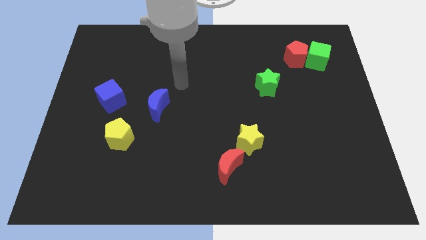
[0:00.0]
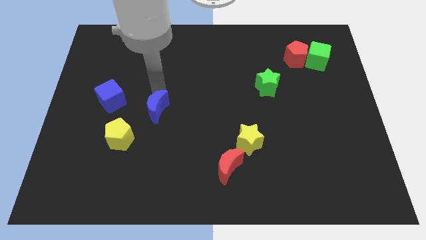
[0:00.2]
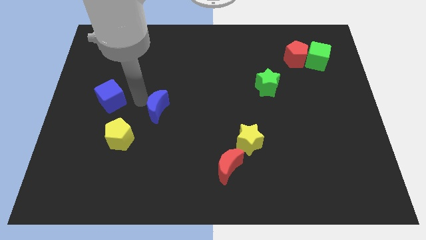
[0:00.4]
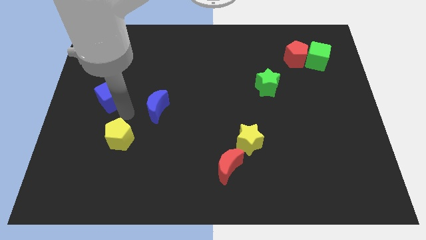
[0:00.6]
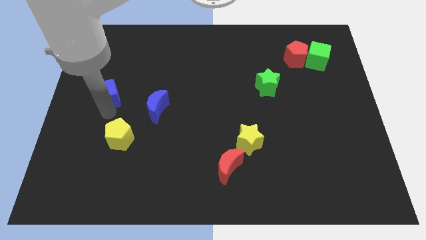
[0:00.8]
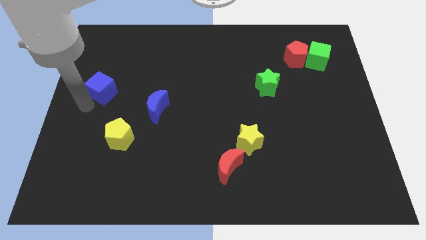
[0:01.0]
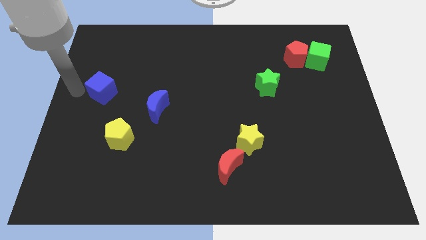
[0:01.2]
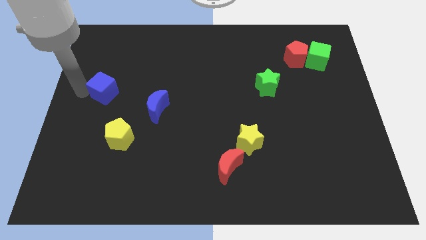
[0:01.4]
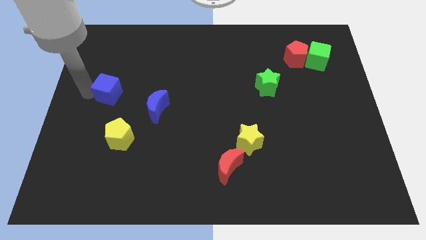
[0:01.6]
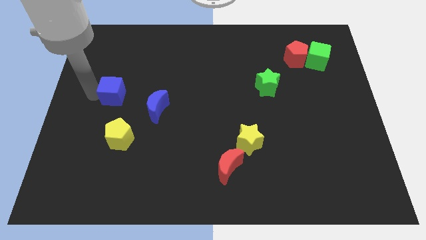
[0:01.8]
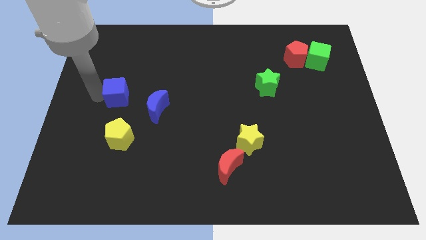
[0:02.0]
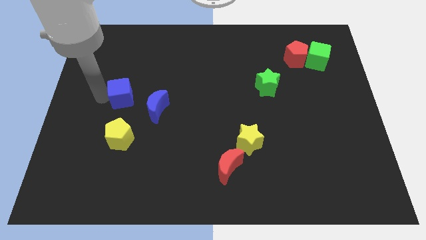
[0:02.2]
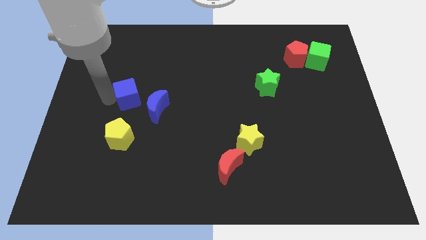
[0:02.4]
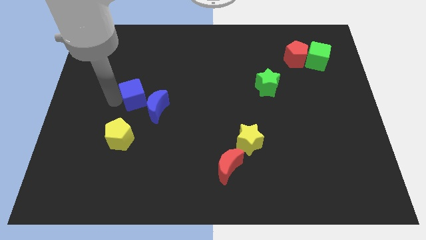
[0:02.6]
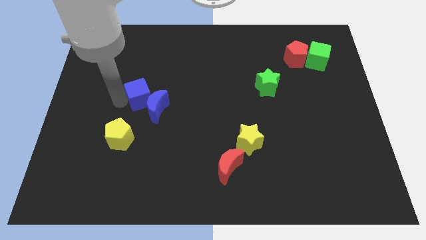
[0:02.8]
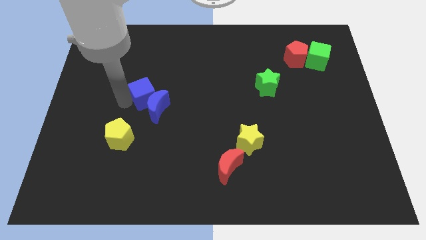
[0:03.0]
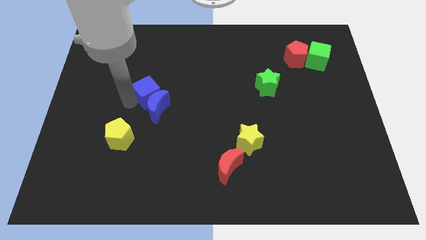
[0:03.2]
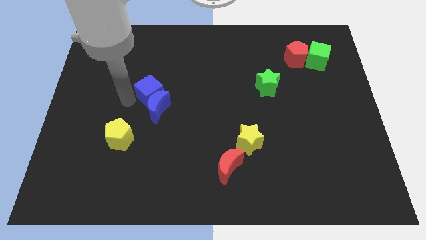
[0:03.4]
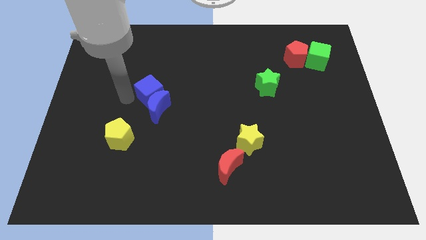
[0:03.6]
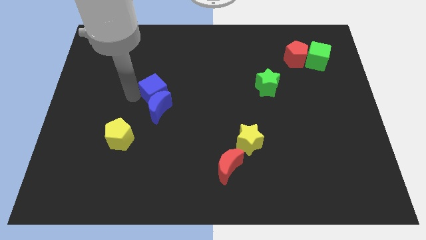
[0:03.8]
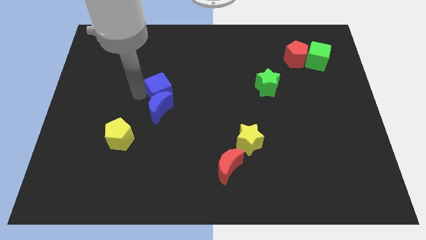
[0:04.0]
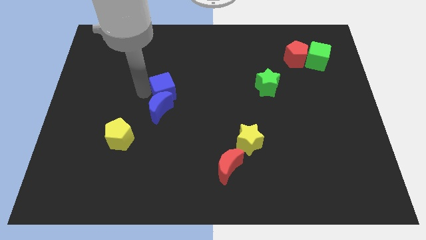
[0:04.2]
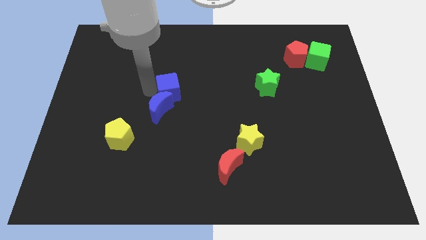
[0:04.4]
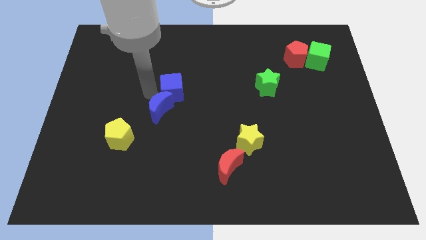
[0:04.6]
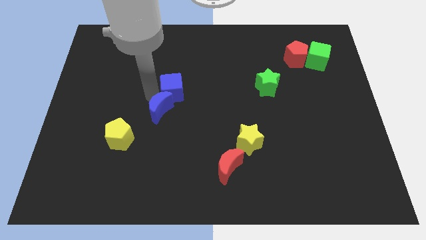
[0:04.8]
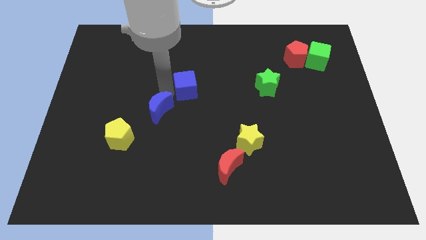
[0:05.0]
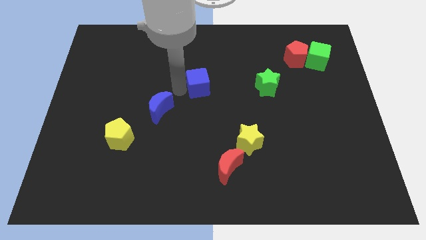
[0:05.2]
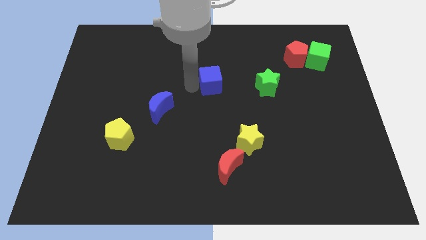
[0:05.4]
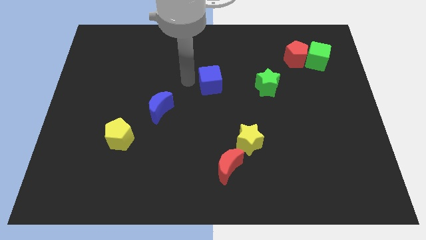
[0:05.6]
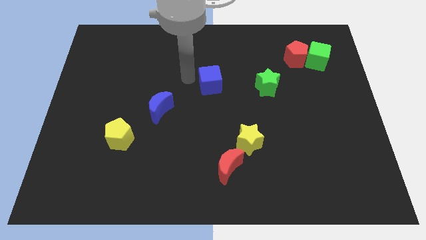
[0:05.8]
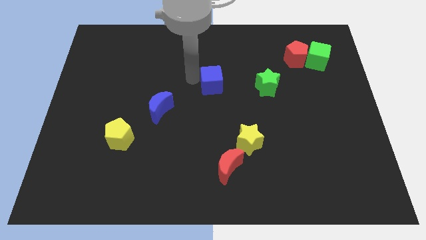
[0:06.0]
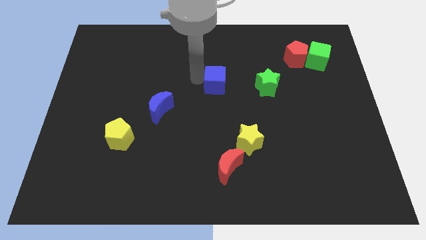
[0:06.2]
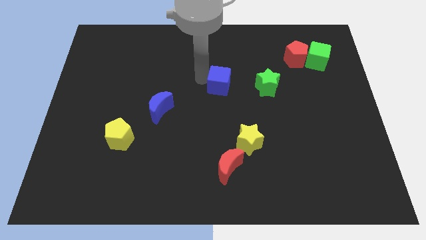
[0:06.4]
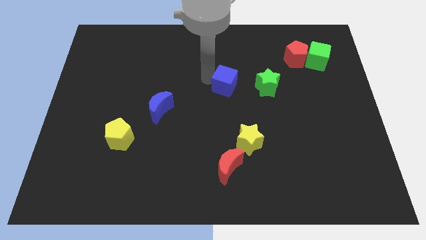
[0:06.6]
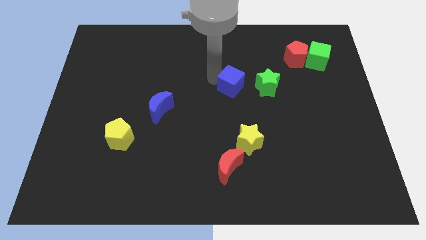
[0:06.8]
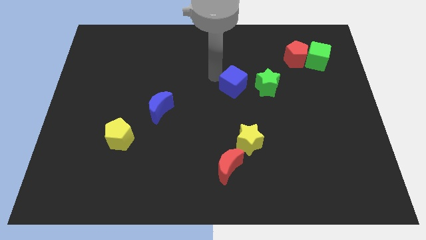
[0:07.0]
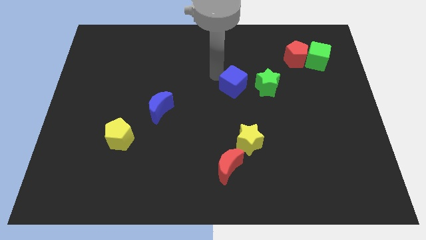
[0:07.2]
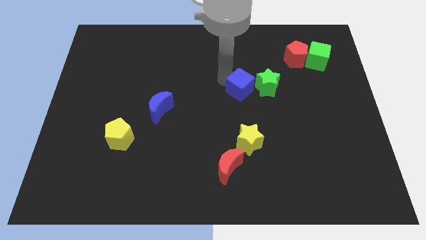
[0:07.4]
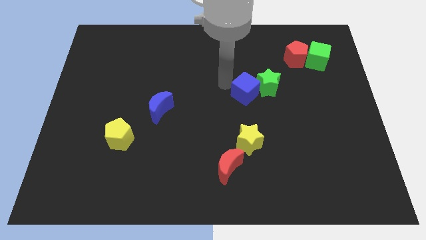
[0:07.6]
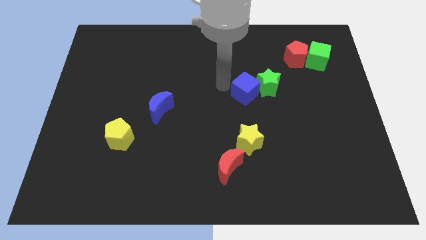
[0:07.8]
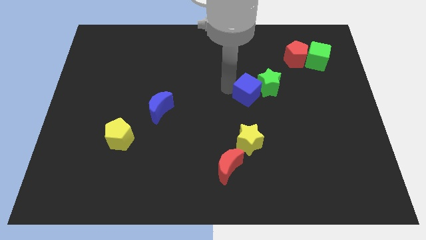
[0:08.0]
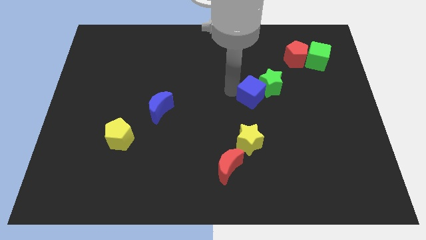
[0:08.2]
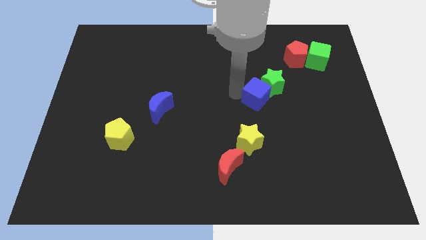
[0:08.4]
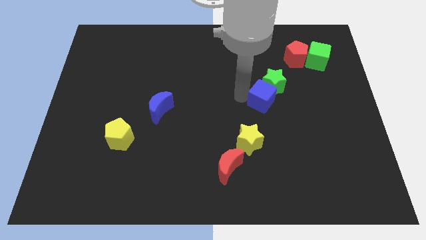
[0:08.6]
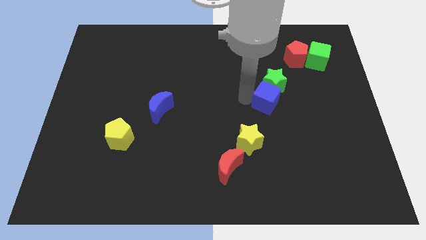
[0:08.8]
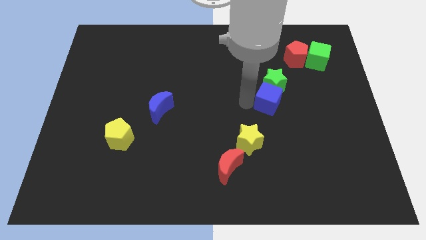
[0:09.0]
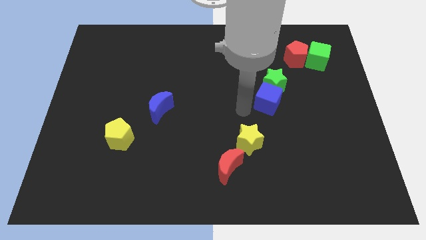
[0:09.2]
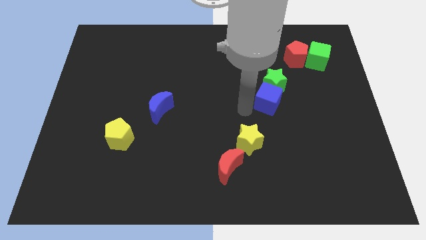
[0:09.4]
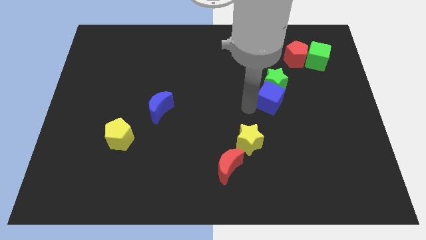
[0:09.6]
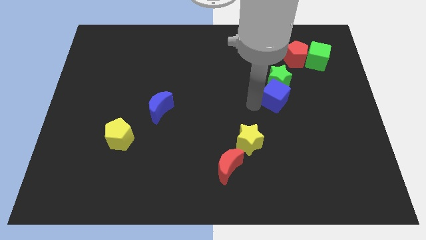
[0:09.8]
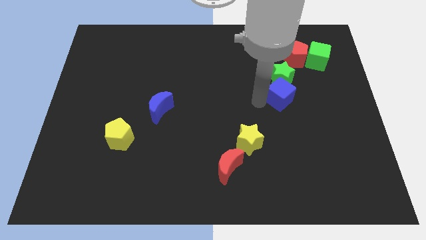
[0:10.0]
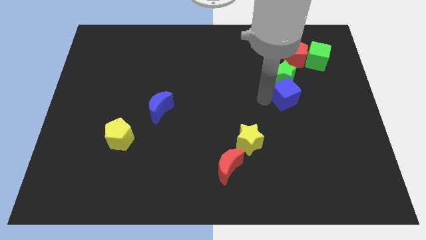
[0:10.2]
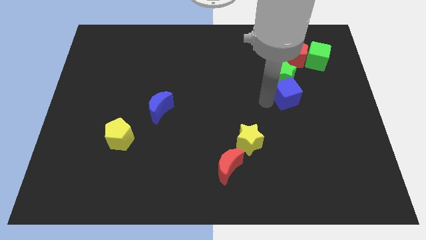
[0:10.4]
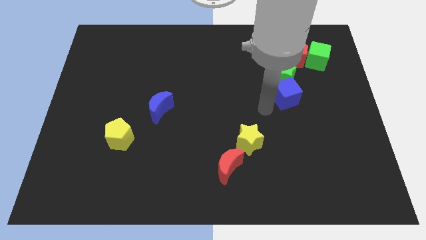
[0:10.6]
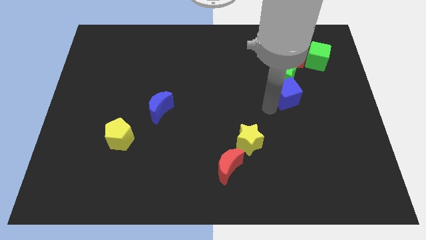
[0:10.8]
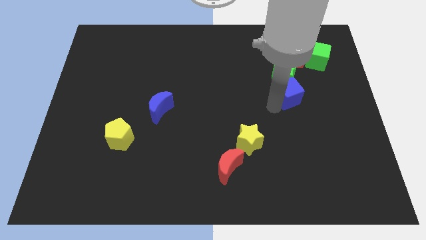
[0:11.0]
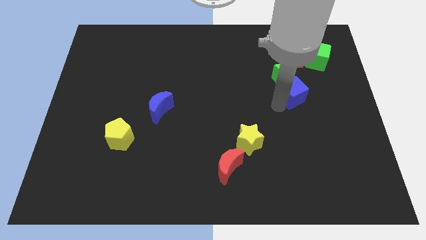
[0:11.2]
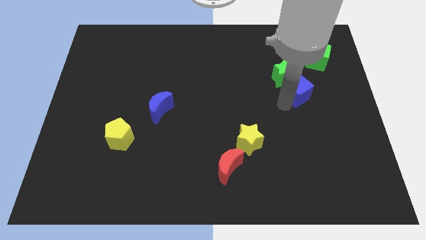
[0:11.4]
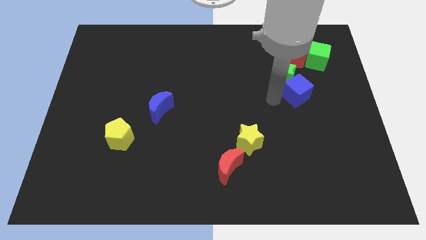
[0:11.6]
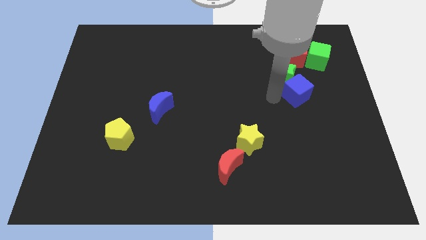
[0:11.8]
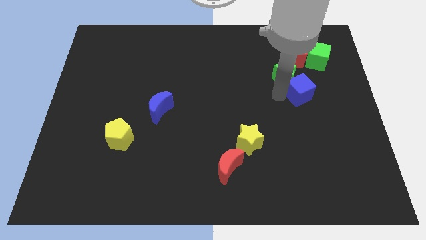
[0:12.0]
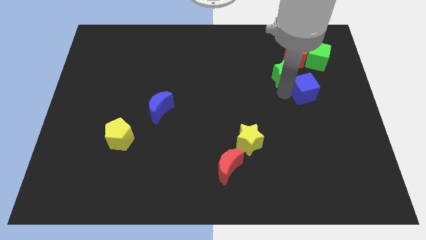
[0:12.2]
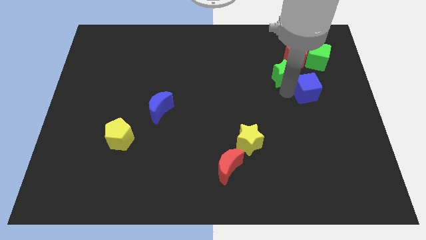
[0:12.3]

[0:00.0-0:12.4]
slide the blue cube below the green cube
